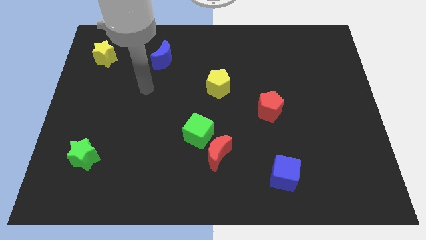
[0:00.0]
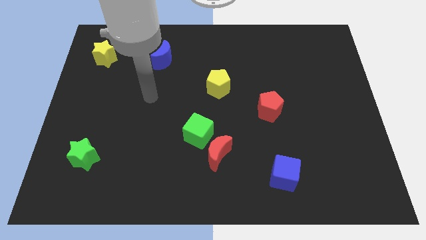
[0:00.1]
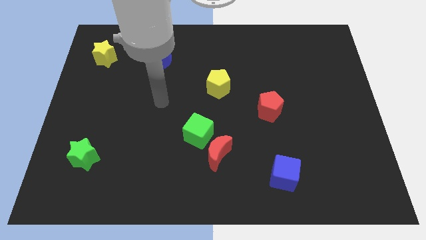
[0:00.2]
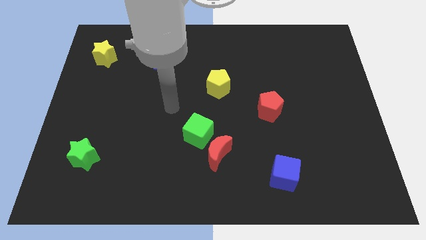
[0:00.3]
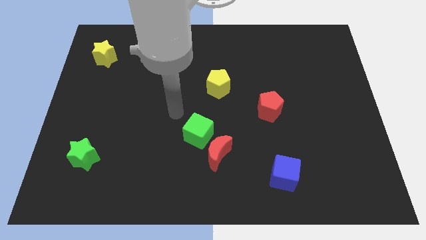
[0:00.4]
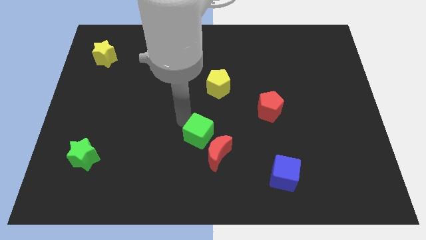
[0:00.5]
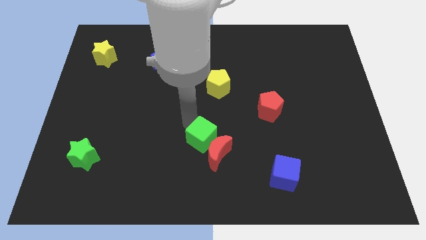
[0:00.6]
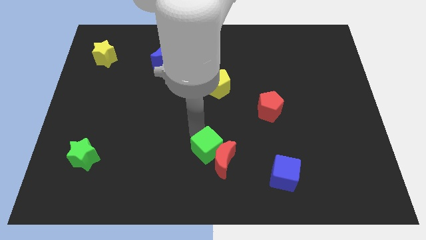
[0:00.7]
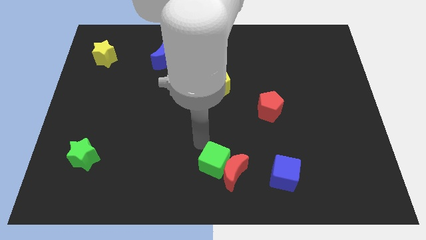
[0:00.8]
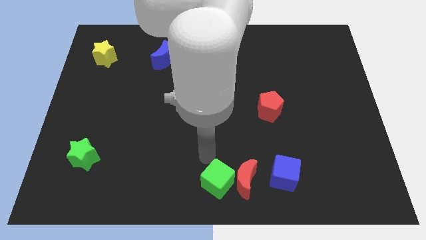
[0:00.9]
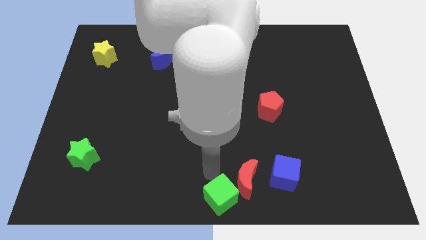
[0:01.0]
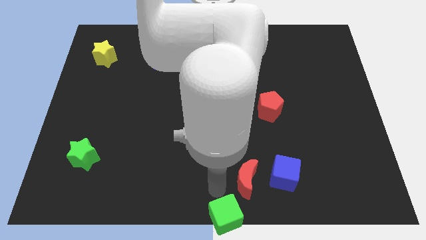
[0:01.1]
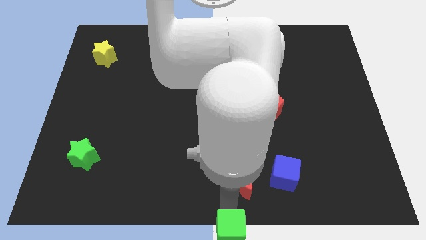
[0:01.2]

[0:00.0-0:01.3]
pull the red moon apart from the green cube

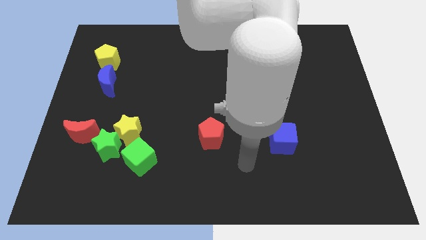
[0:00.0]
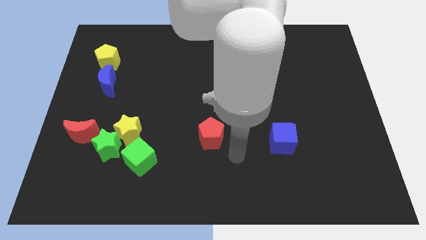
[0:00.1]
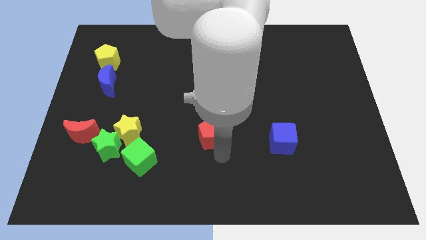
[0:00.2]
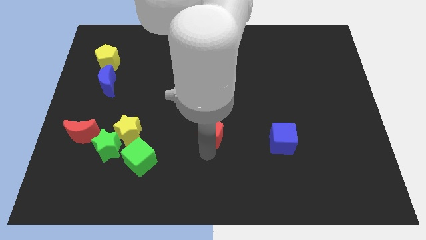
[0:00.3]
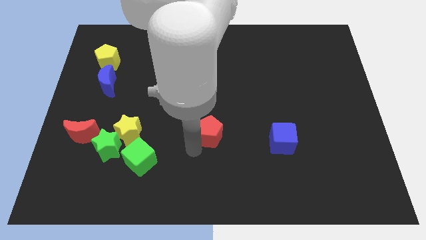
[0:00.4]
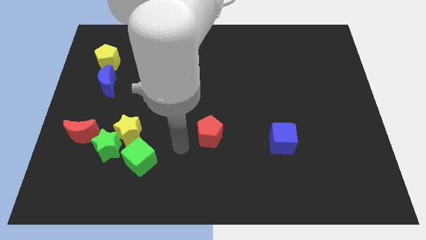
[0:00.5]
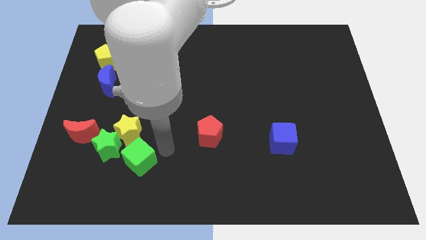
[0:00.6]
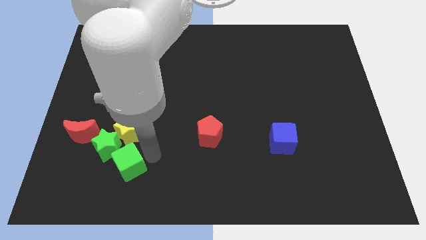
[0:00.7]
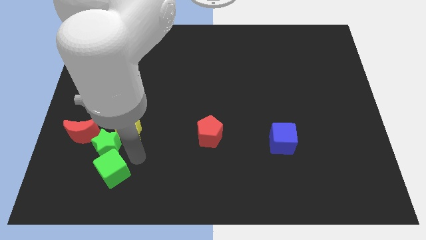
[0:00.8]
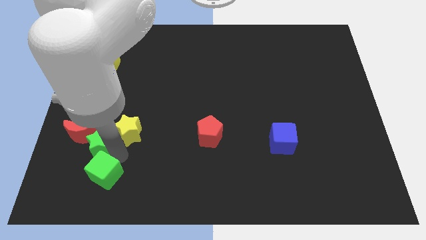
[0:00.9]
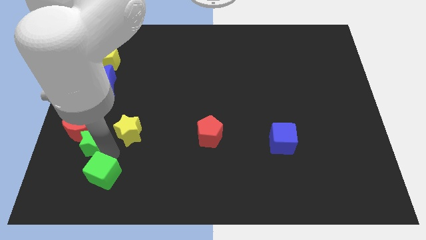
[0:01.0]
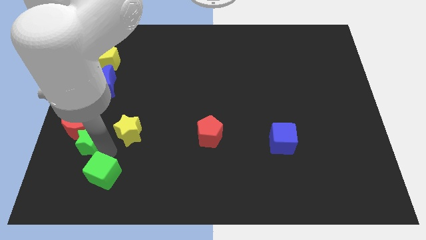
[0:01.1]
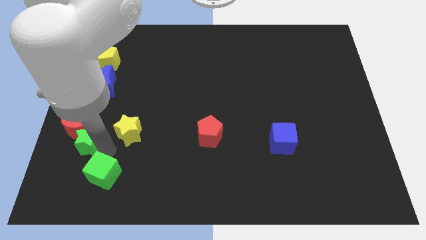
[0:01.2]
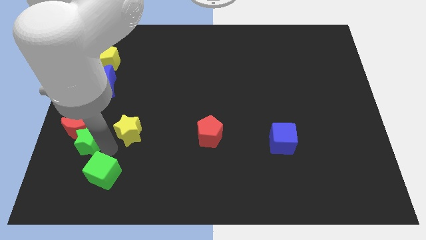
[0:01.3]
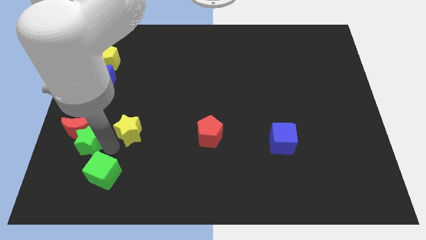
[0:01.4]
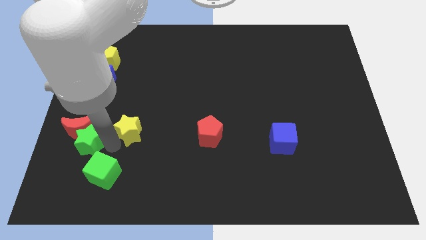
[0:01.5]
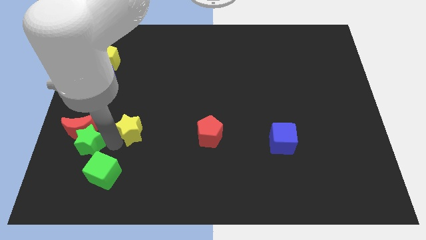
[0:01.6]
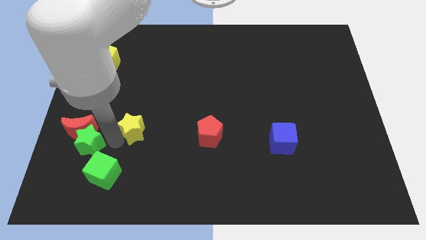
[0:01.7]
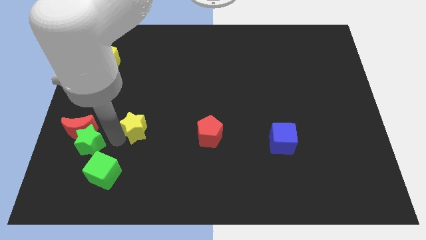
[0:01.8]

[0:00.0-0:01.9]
separate the yellow star from the green star and green cube

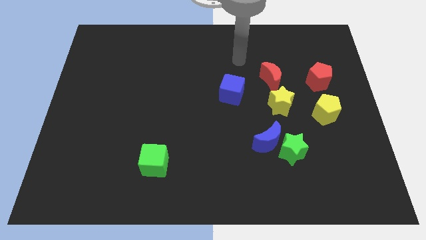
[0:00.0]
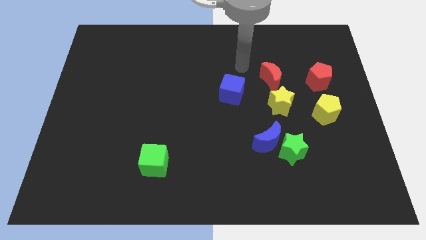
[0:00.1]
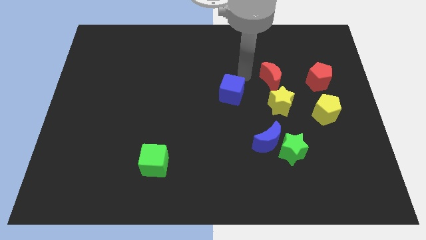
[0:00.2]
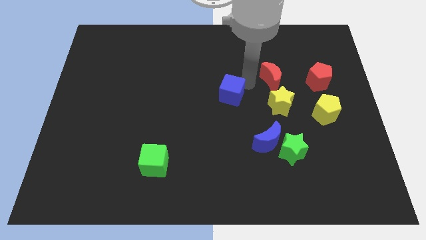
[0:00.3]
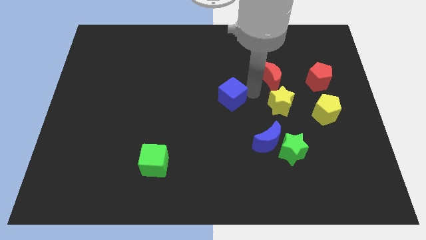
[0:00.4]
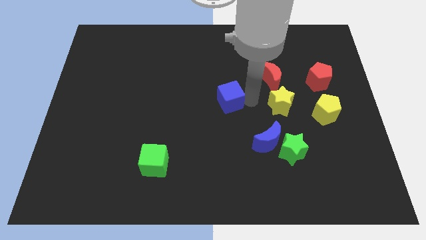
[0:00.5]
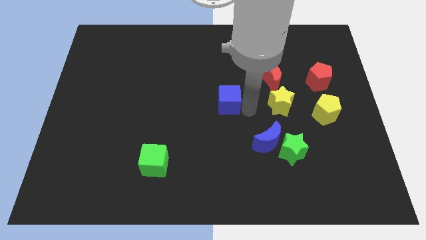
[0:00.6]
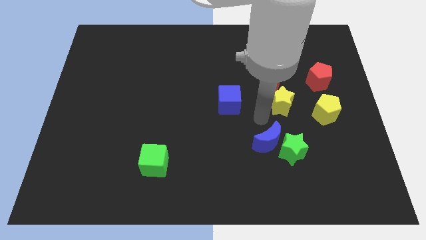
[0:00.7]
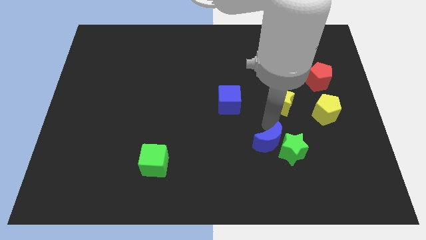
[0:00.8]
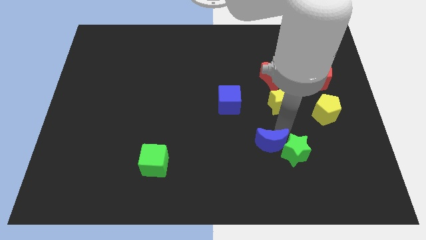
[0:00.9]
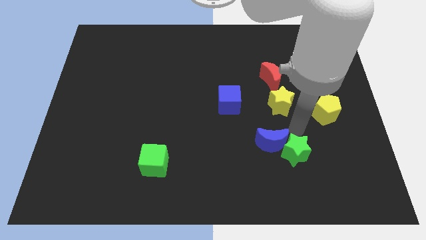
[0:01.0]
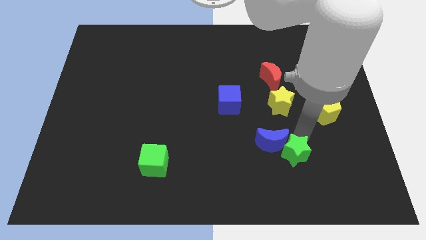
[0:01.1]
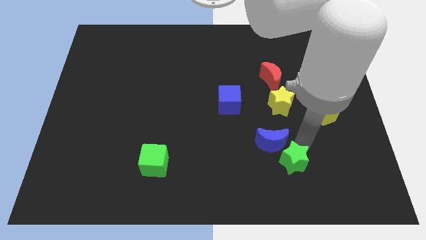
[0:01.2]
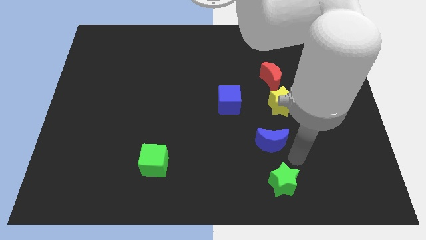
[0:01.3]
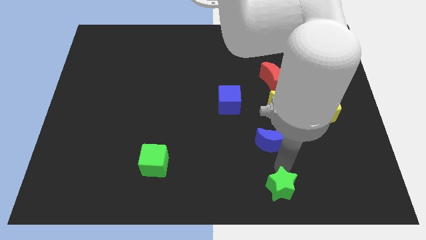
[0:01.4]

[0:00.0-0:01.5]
move the blue moon away from the green star

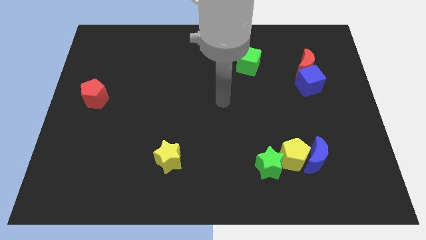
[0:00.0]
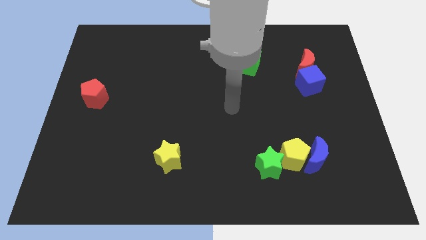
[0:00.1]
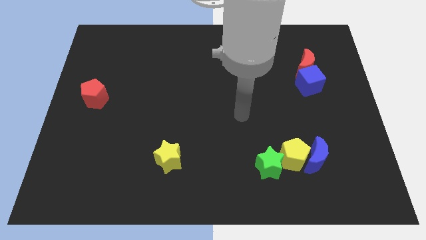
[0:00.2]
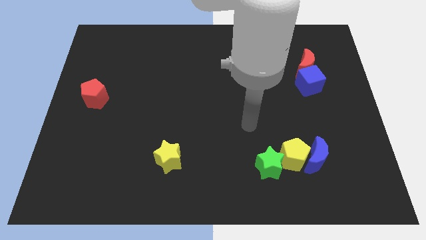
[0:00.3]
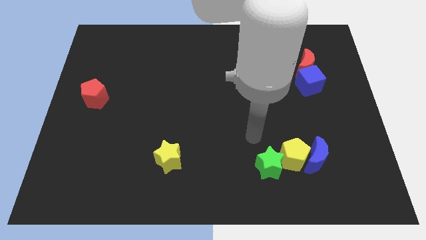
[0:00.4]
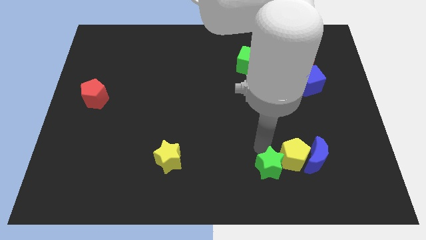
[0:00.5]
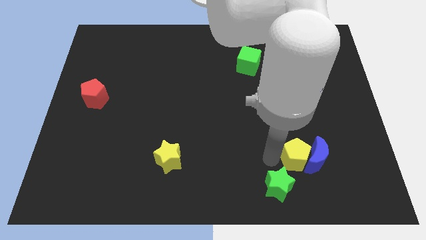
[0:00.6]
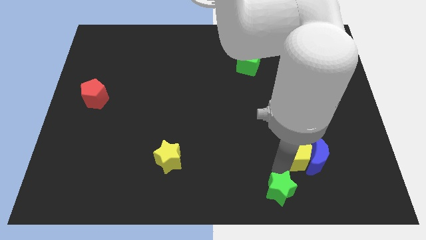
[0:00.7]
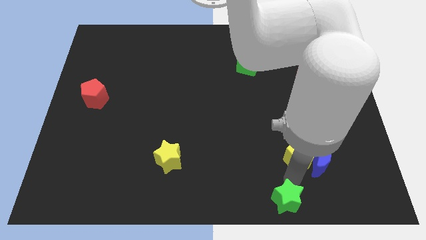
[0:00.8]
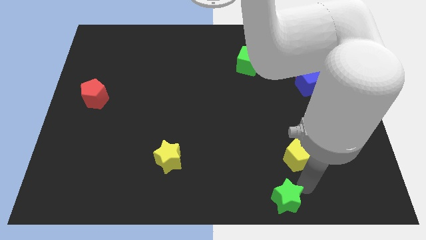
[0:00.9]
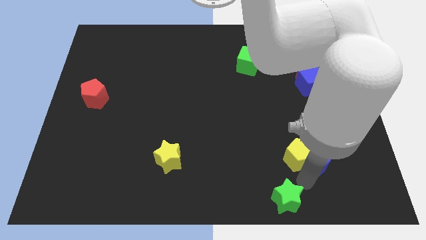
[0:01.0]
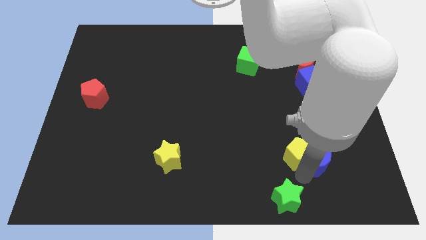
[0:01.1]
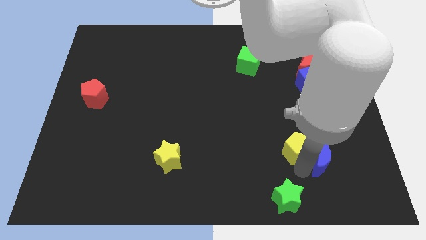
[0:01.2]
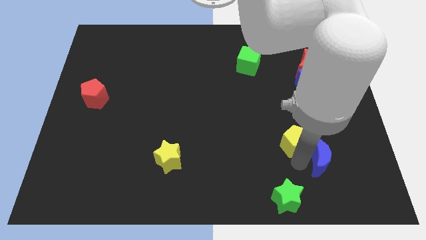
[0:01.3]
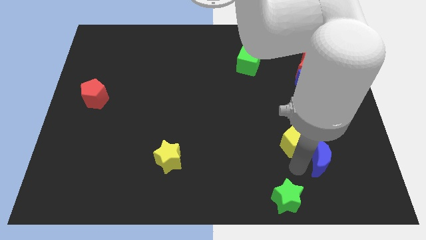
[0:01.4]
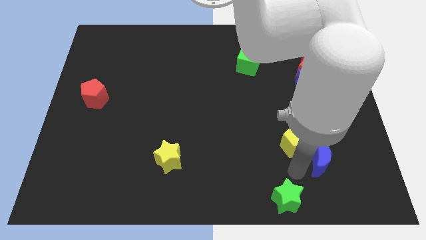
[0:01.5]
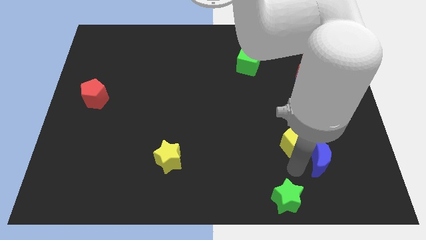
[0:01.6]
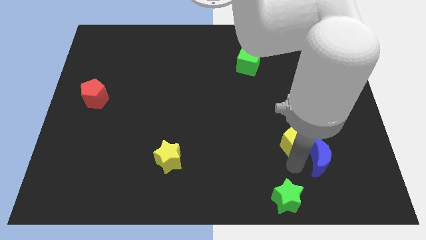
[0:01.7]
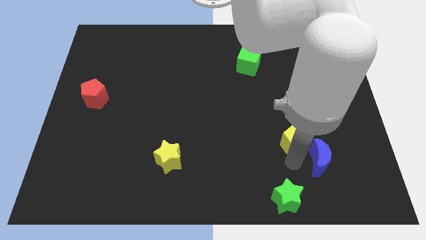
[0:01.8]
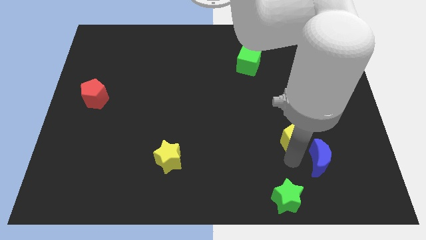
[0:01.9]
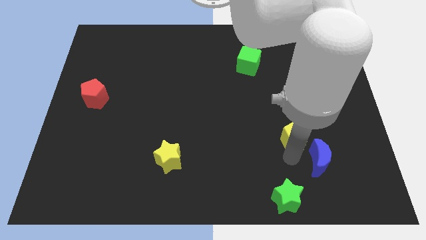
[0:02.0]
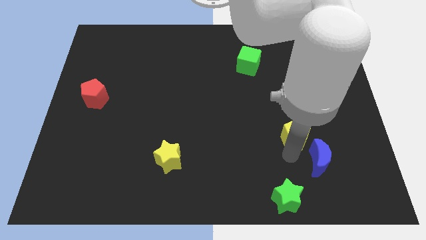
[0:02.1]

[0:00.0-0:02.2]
move the yellow pentagon away from the blue moon and green star

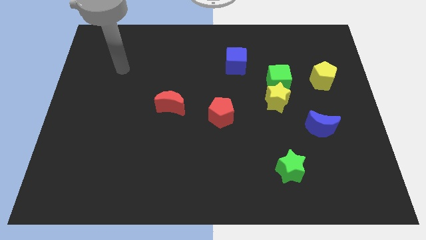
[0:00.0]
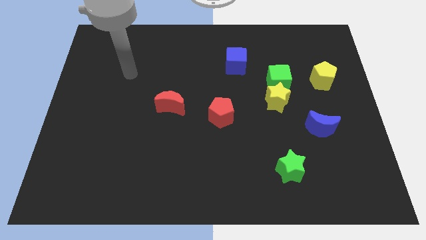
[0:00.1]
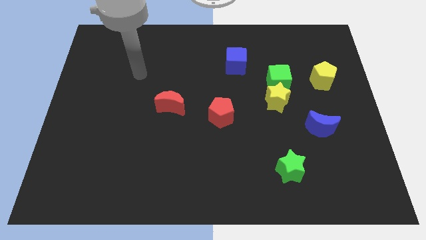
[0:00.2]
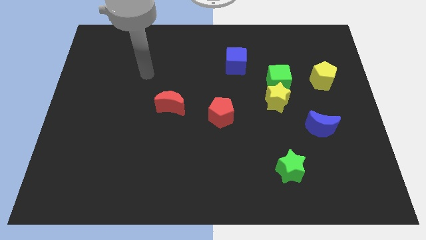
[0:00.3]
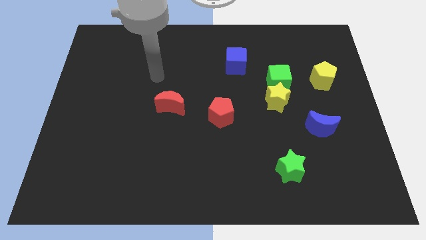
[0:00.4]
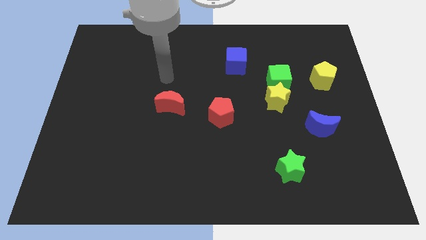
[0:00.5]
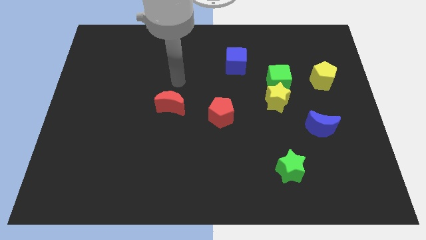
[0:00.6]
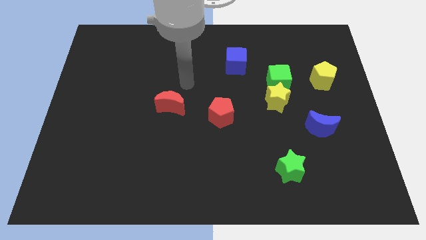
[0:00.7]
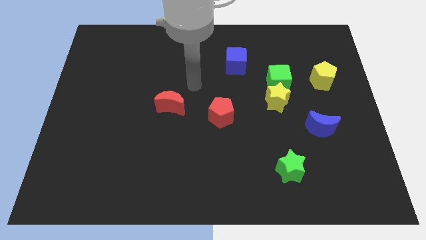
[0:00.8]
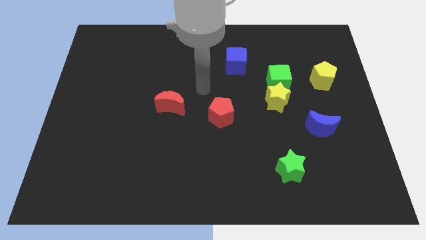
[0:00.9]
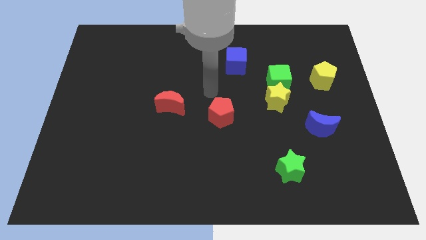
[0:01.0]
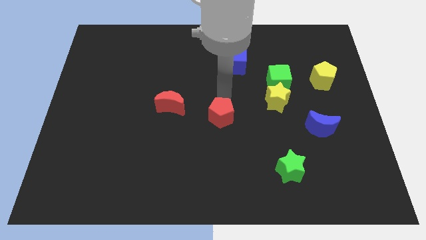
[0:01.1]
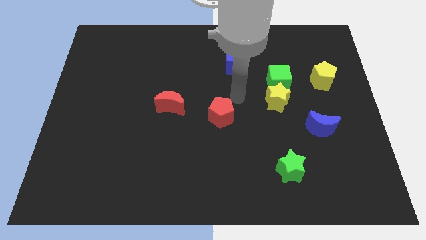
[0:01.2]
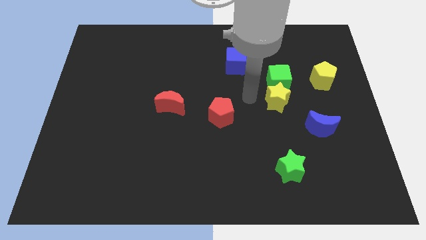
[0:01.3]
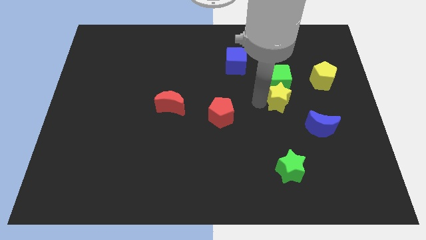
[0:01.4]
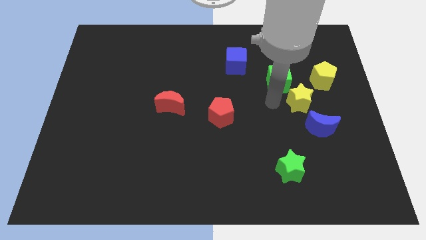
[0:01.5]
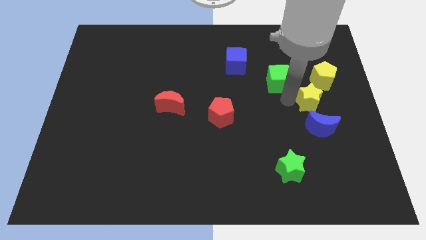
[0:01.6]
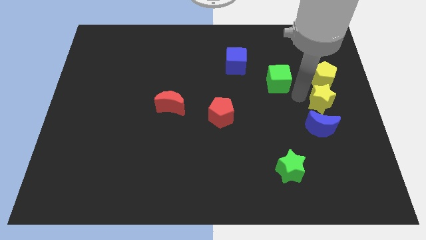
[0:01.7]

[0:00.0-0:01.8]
separate the green cube from the yellow star

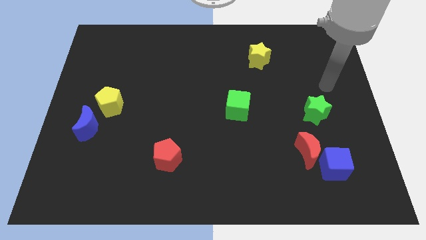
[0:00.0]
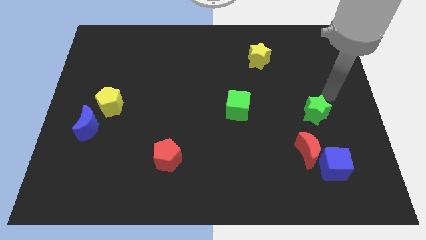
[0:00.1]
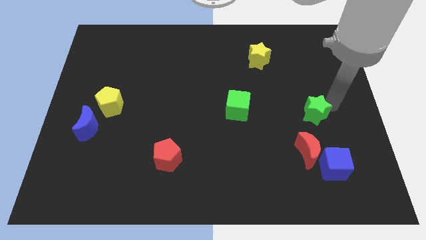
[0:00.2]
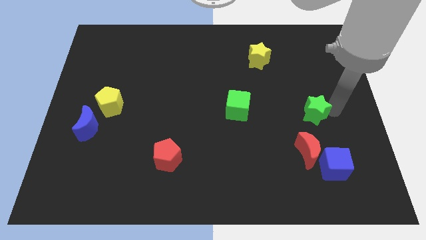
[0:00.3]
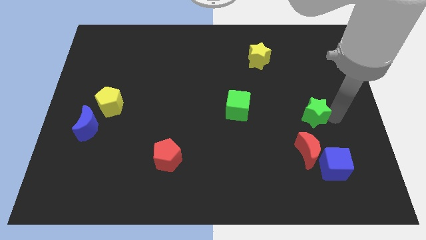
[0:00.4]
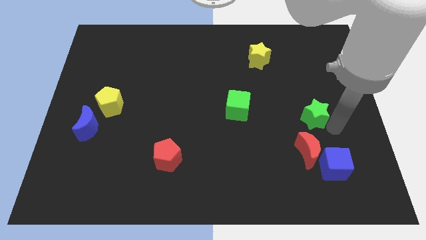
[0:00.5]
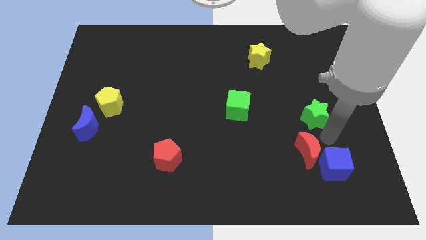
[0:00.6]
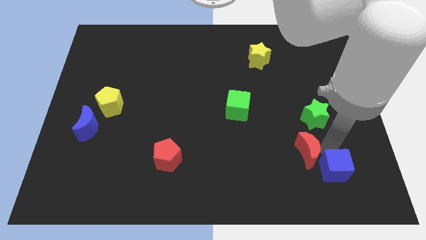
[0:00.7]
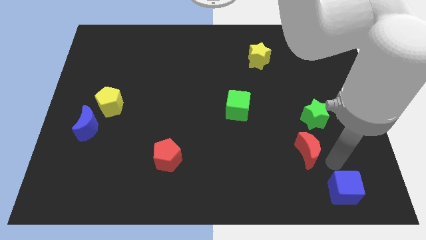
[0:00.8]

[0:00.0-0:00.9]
move the red moon away from the blue cube
